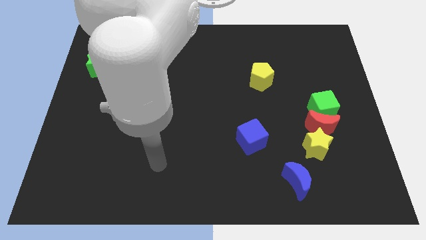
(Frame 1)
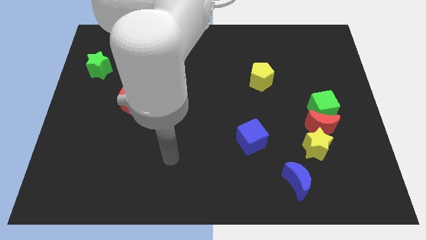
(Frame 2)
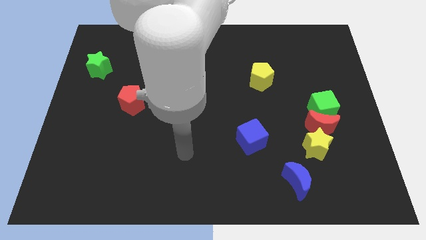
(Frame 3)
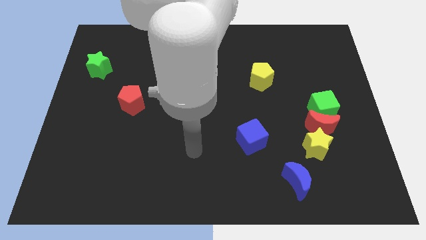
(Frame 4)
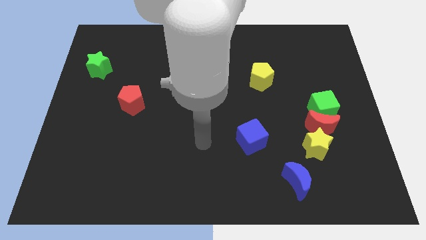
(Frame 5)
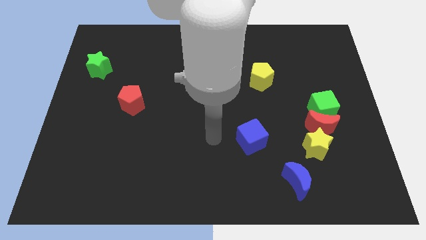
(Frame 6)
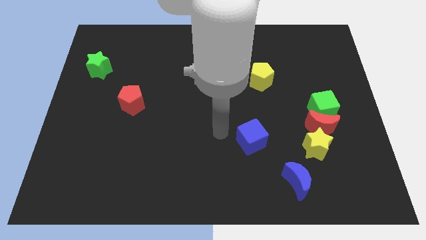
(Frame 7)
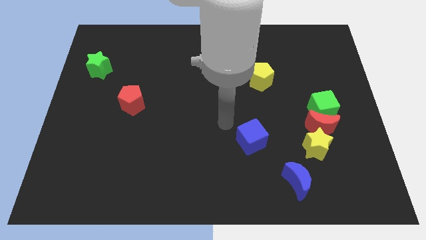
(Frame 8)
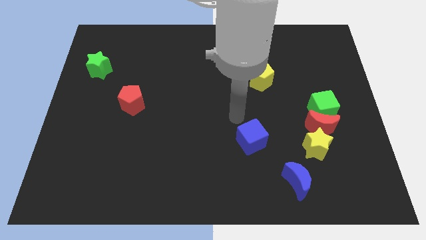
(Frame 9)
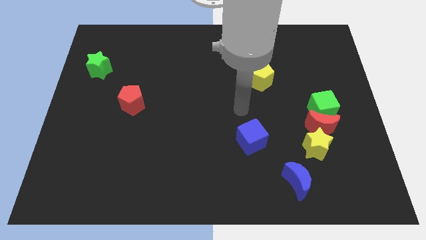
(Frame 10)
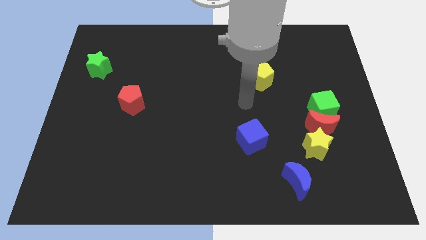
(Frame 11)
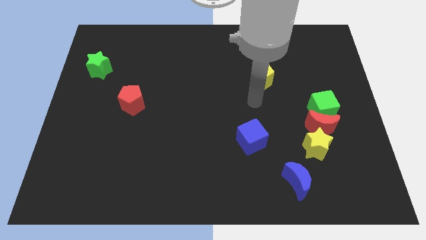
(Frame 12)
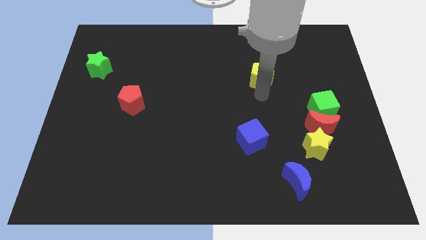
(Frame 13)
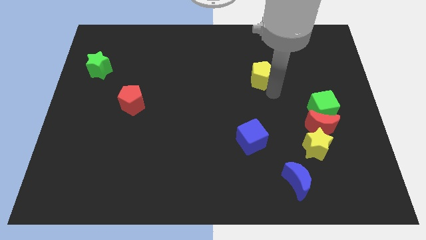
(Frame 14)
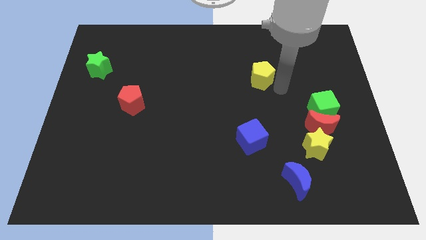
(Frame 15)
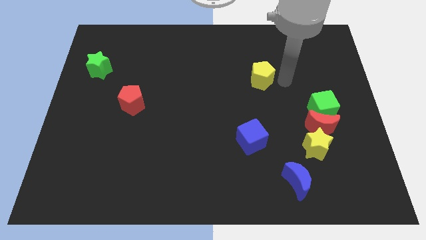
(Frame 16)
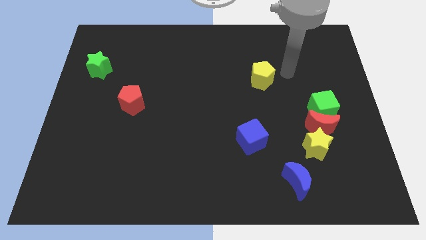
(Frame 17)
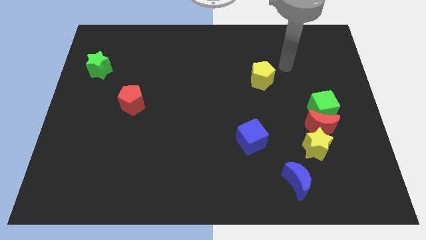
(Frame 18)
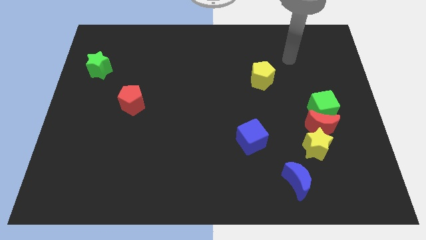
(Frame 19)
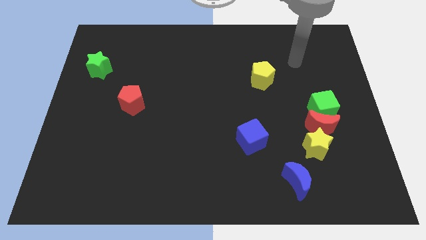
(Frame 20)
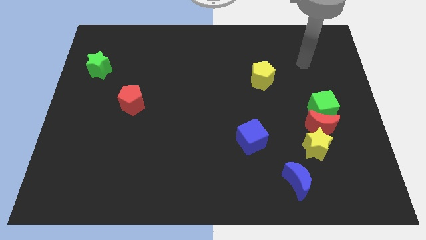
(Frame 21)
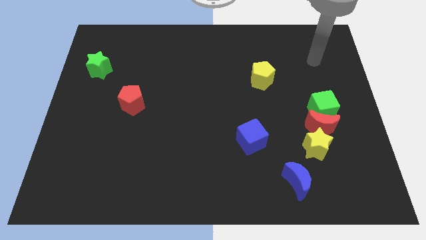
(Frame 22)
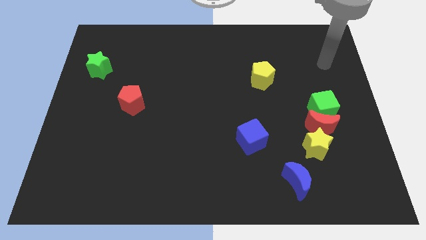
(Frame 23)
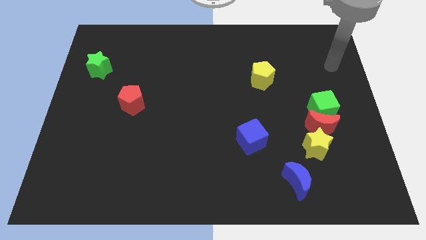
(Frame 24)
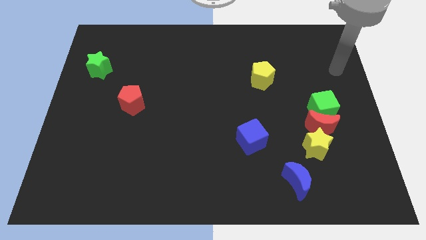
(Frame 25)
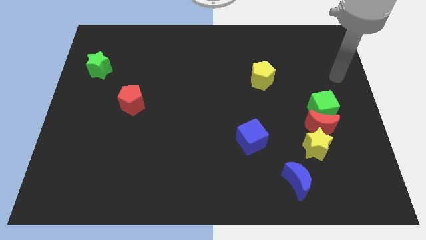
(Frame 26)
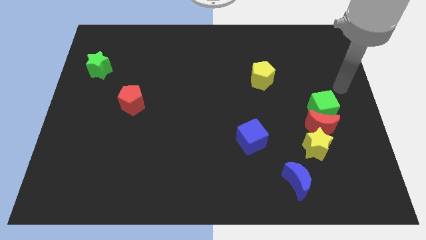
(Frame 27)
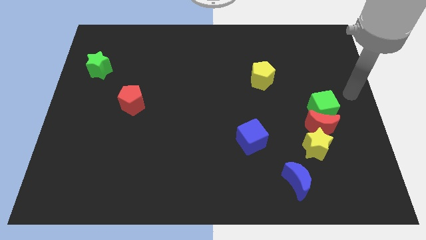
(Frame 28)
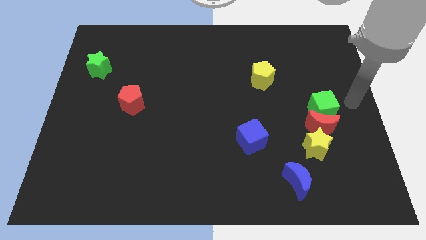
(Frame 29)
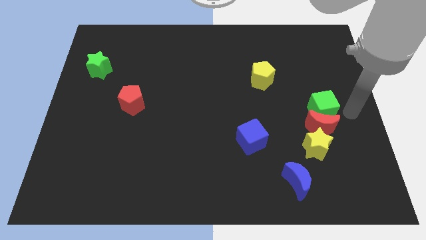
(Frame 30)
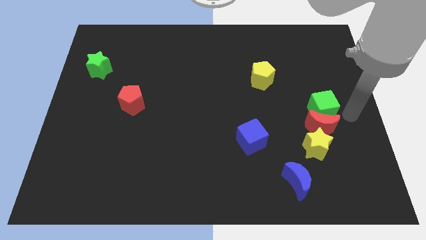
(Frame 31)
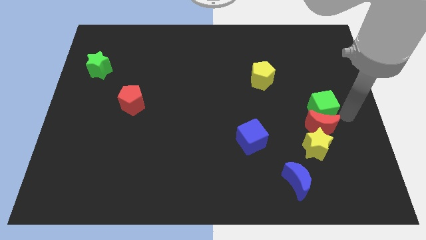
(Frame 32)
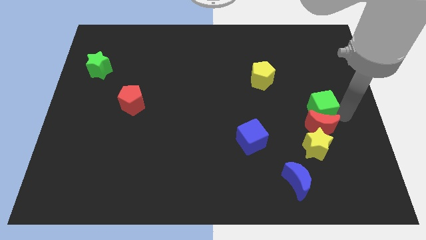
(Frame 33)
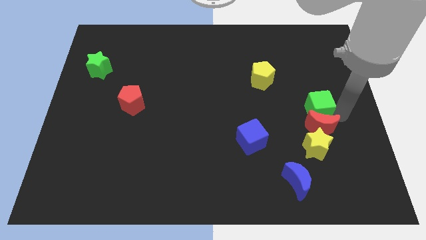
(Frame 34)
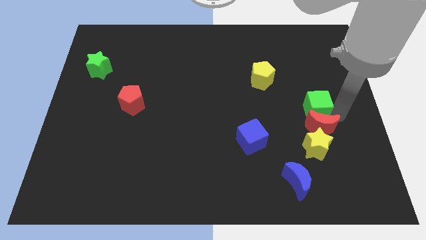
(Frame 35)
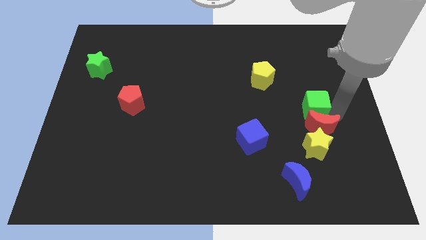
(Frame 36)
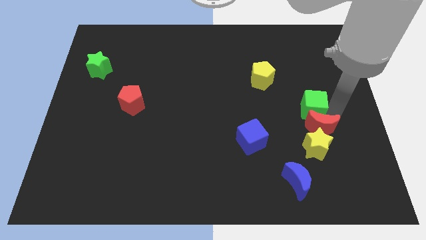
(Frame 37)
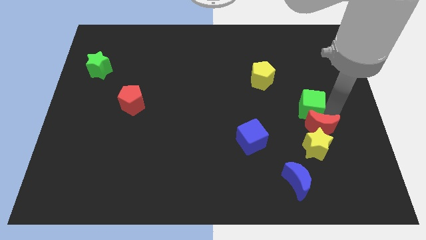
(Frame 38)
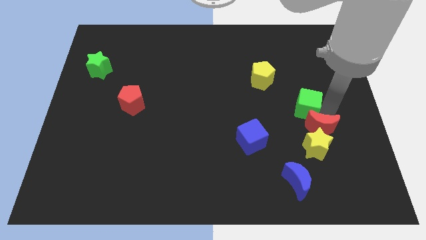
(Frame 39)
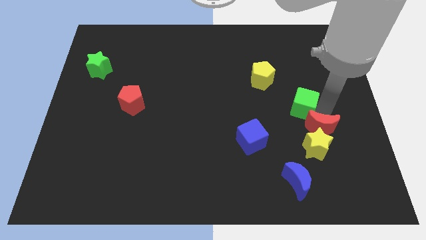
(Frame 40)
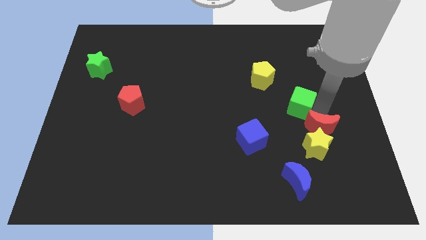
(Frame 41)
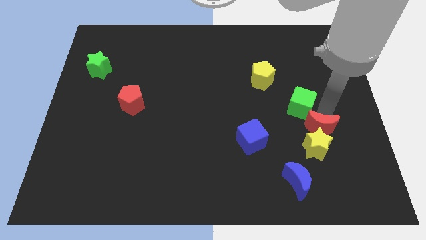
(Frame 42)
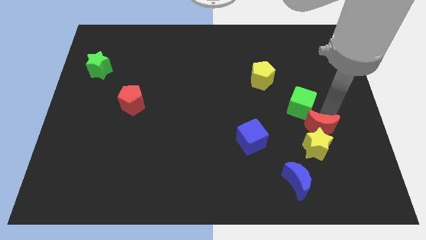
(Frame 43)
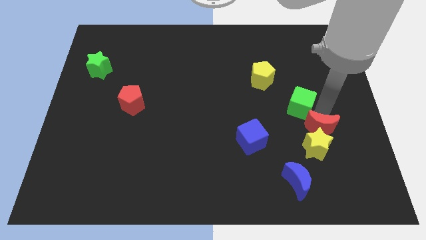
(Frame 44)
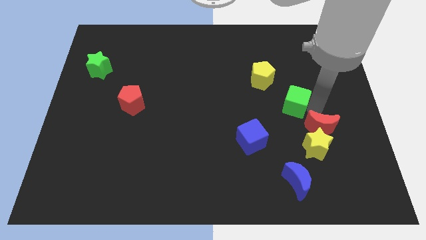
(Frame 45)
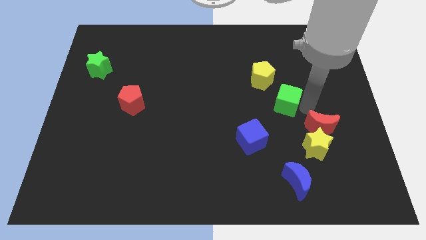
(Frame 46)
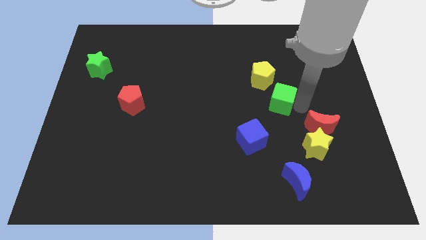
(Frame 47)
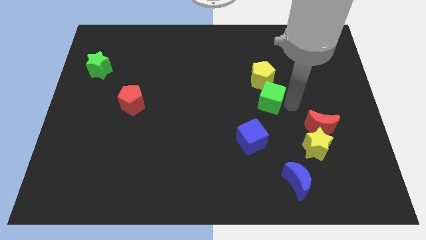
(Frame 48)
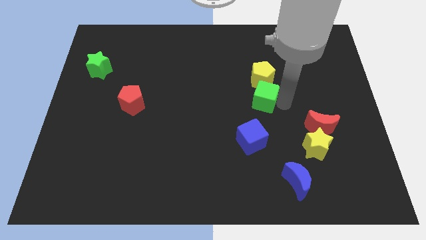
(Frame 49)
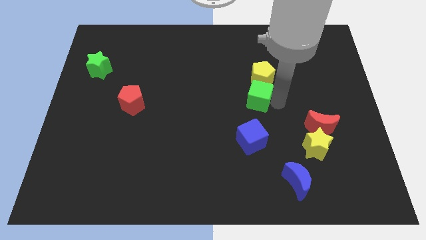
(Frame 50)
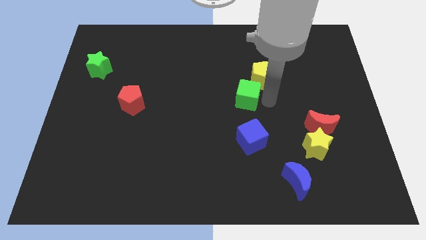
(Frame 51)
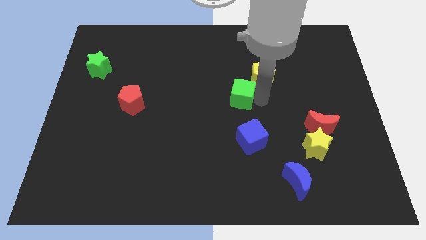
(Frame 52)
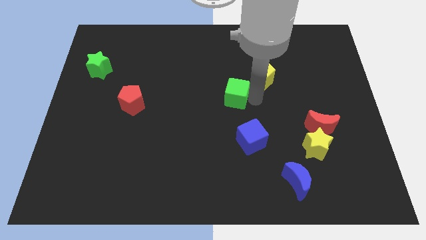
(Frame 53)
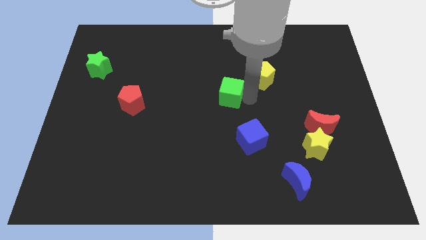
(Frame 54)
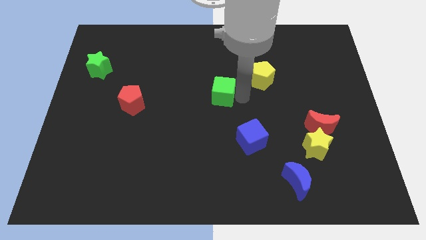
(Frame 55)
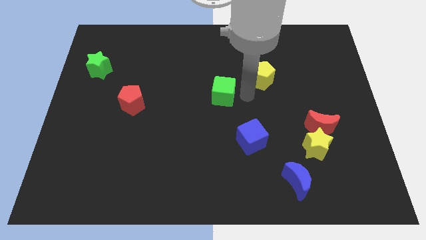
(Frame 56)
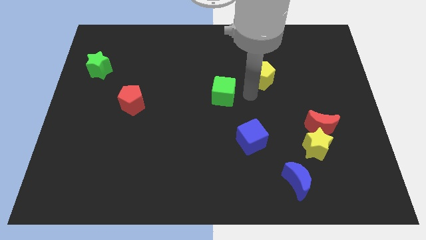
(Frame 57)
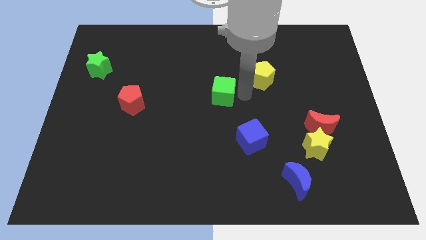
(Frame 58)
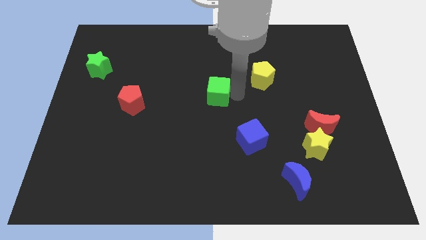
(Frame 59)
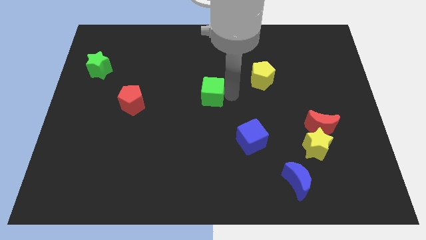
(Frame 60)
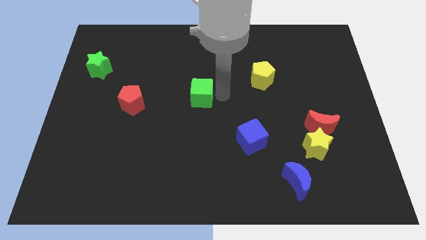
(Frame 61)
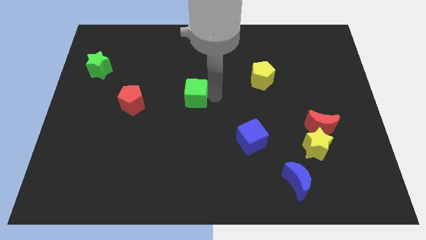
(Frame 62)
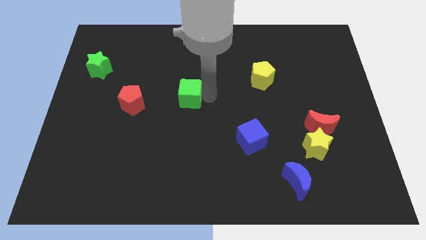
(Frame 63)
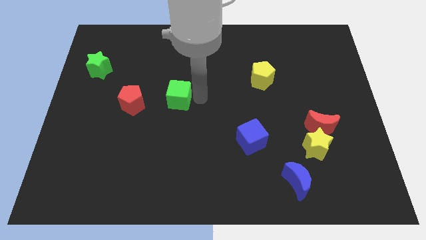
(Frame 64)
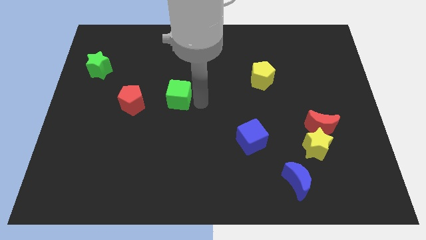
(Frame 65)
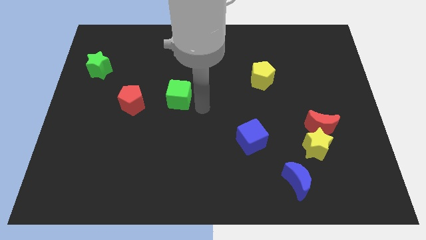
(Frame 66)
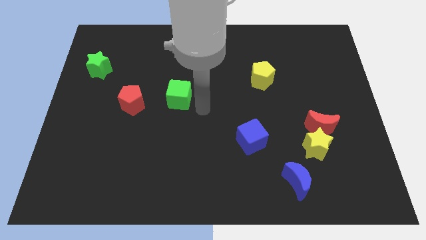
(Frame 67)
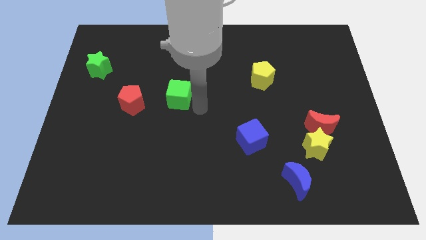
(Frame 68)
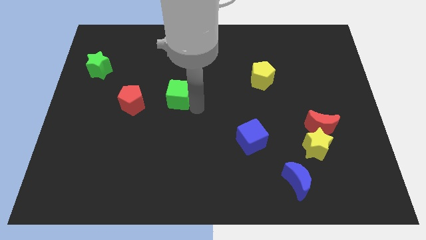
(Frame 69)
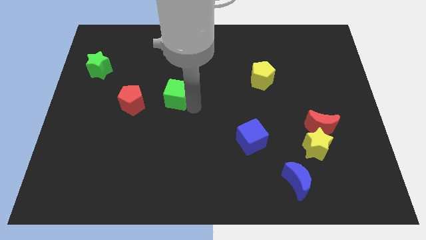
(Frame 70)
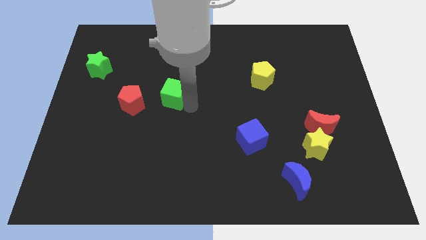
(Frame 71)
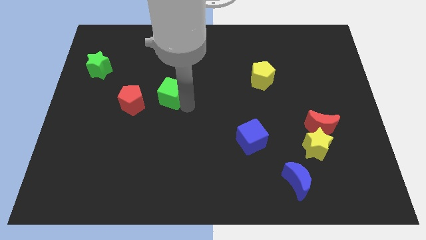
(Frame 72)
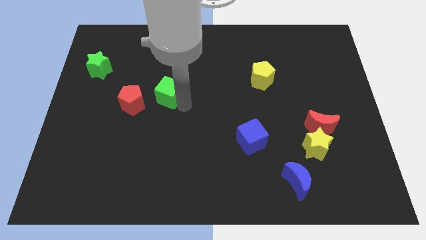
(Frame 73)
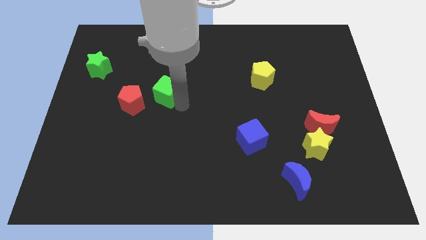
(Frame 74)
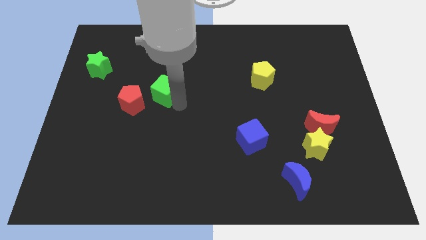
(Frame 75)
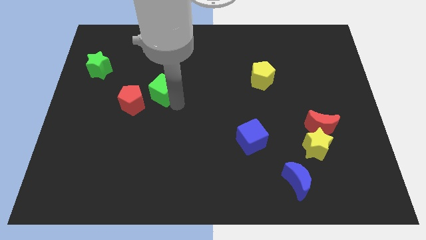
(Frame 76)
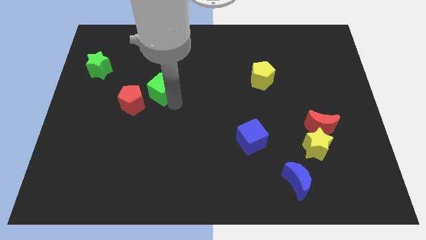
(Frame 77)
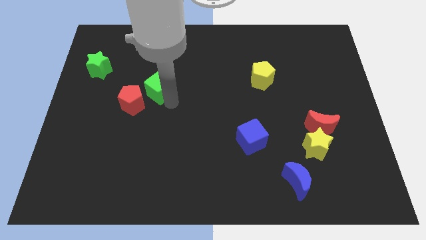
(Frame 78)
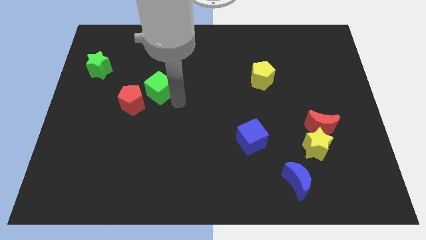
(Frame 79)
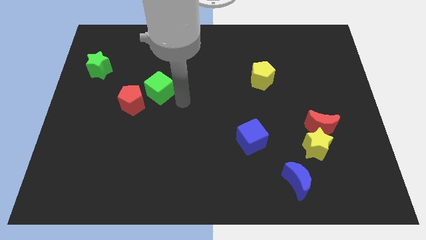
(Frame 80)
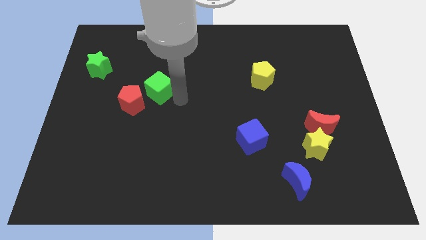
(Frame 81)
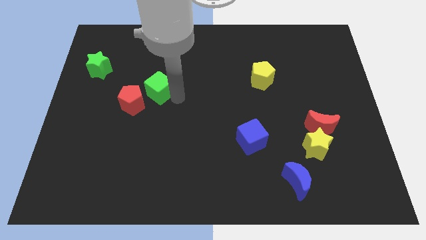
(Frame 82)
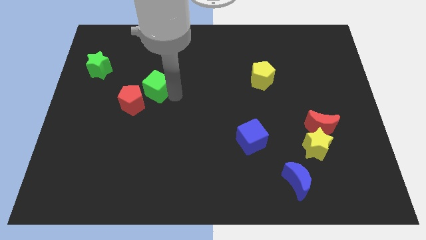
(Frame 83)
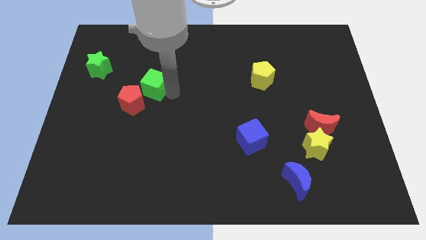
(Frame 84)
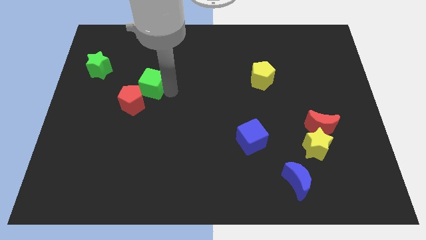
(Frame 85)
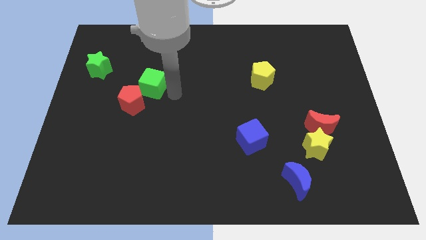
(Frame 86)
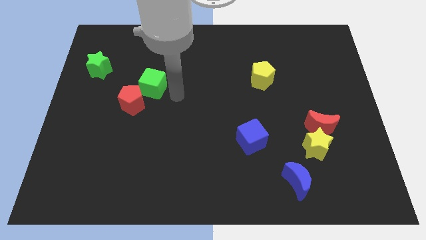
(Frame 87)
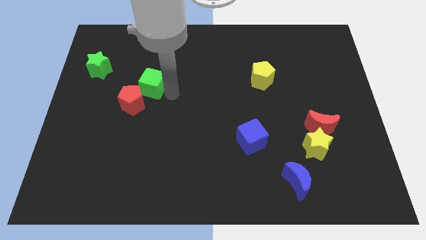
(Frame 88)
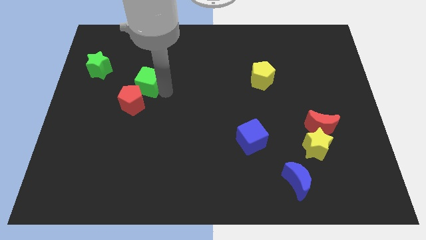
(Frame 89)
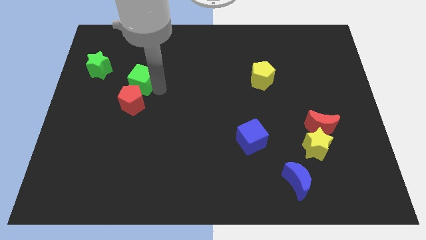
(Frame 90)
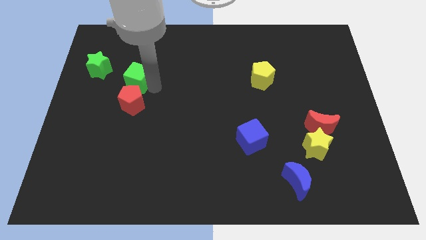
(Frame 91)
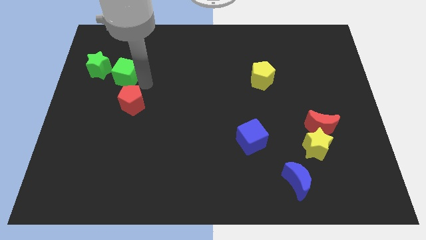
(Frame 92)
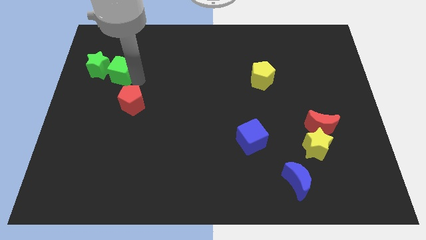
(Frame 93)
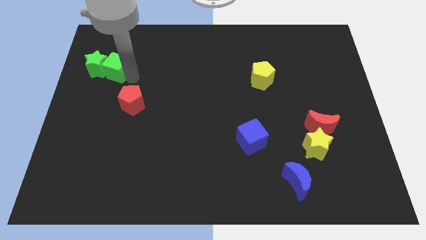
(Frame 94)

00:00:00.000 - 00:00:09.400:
push the green cube next to the green star
